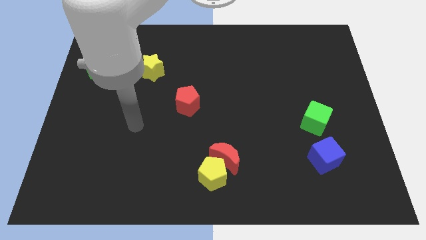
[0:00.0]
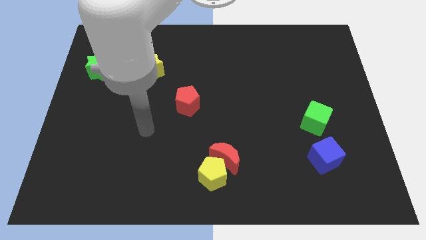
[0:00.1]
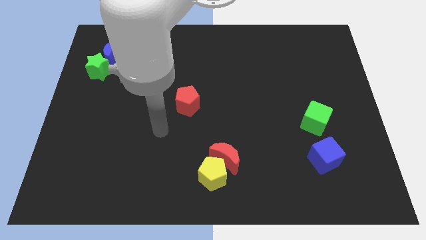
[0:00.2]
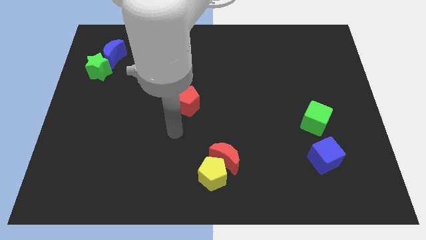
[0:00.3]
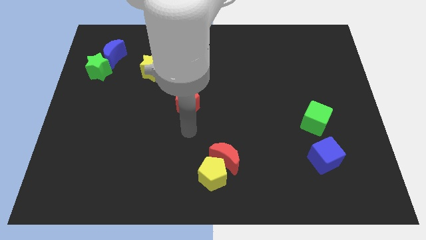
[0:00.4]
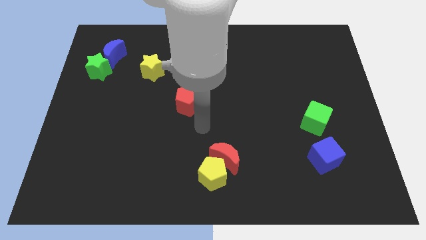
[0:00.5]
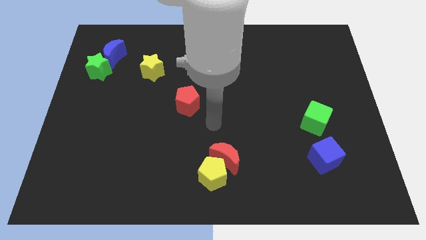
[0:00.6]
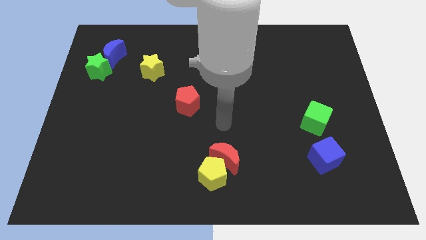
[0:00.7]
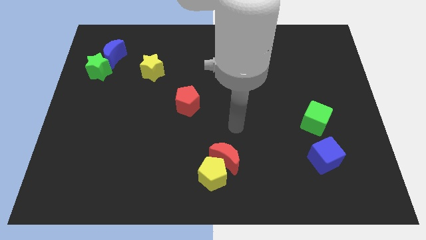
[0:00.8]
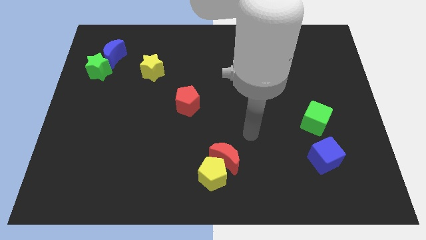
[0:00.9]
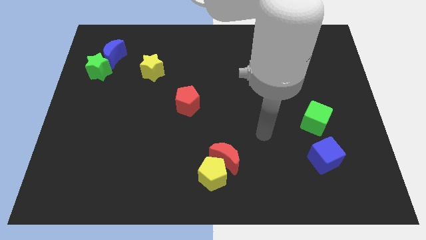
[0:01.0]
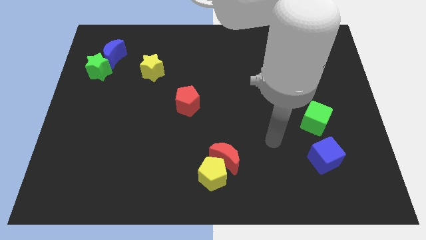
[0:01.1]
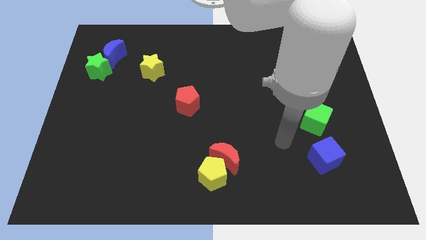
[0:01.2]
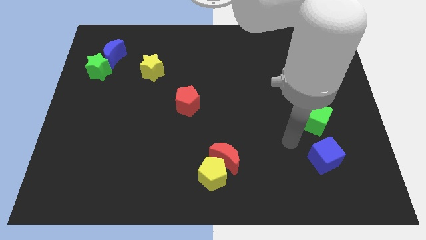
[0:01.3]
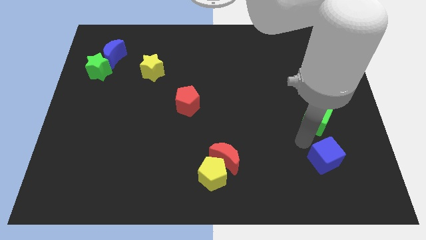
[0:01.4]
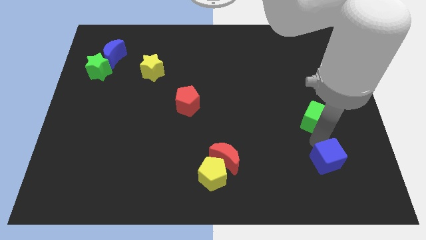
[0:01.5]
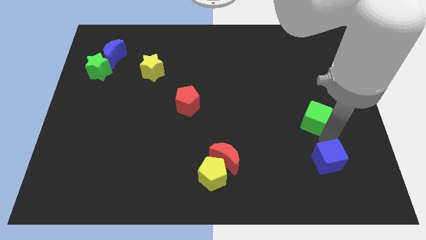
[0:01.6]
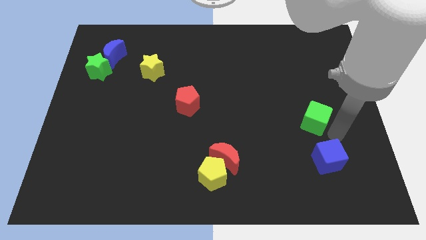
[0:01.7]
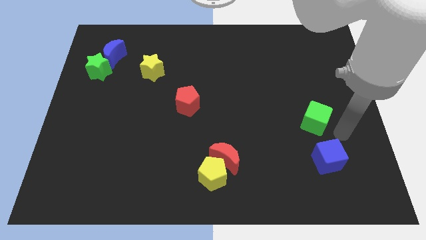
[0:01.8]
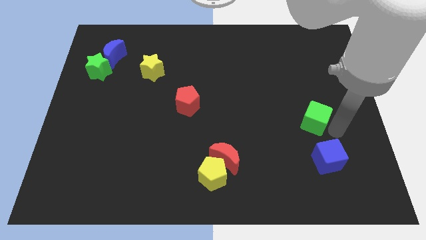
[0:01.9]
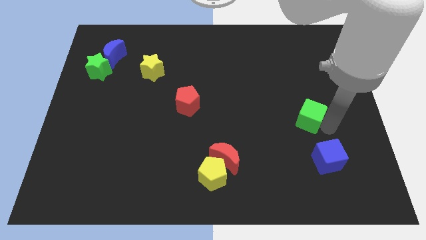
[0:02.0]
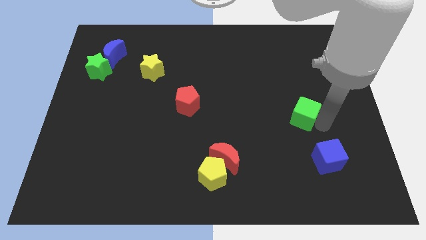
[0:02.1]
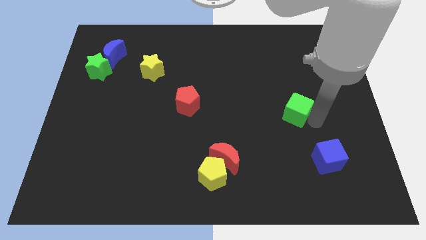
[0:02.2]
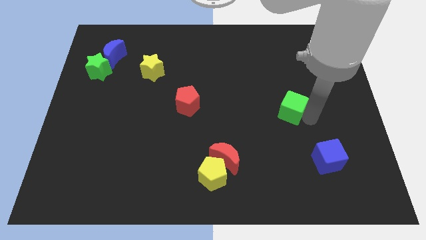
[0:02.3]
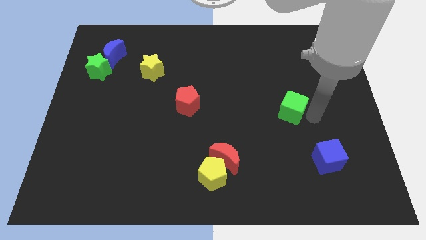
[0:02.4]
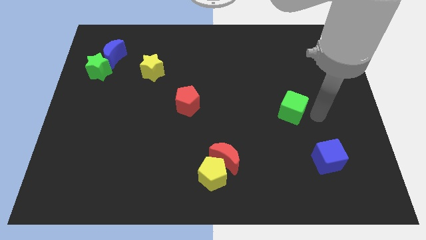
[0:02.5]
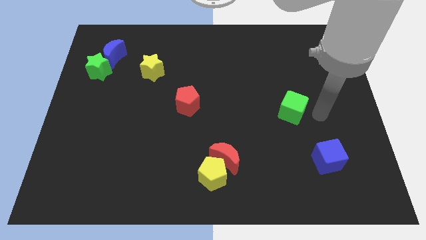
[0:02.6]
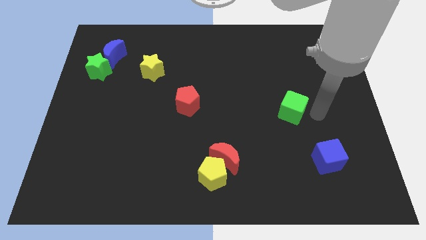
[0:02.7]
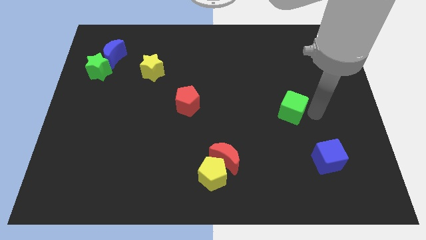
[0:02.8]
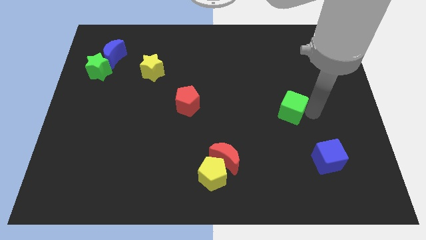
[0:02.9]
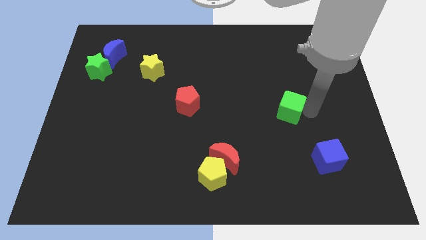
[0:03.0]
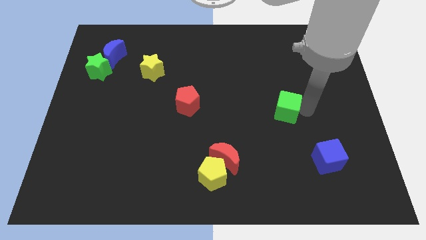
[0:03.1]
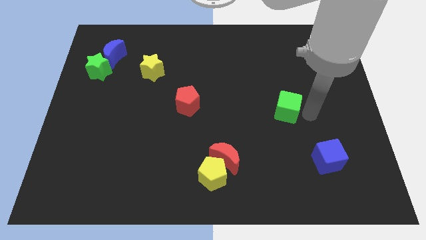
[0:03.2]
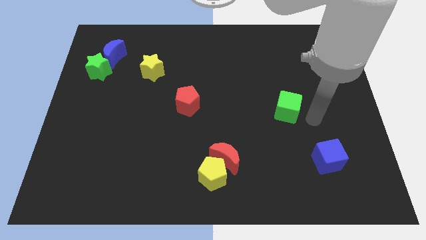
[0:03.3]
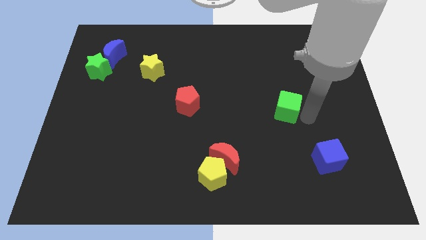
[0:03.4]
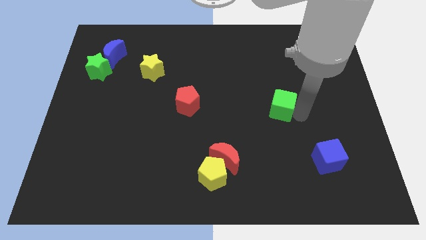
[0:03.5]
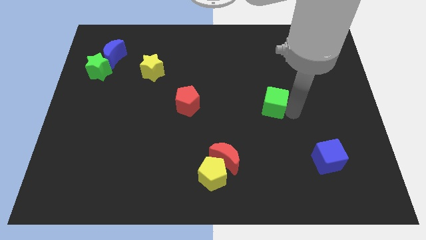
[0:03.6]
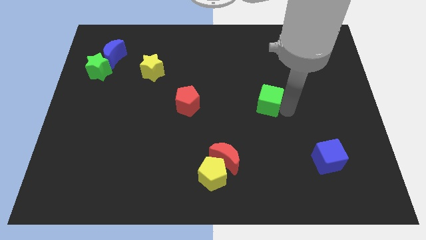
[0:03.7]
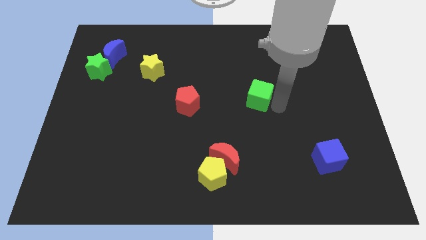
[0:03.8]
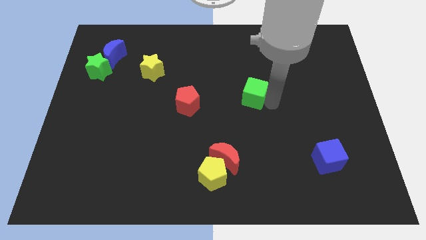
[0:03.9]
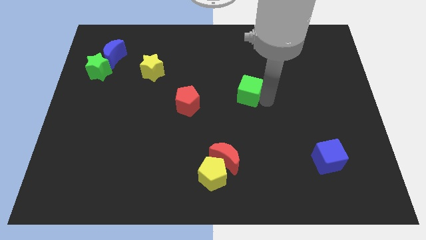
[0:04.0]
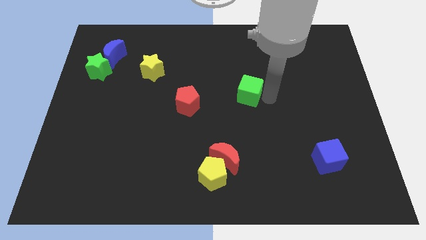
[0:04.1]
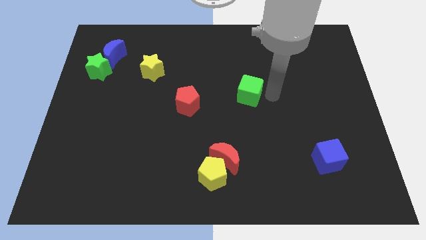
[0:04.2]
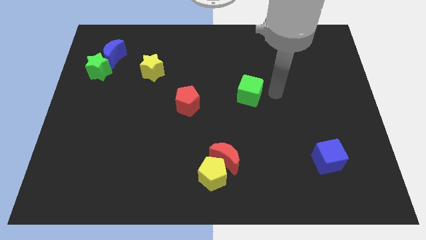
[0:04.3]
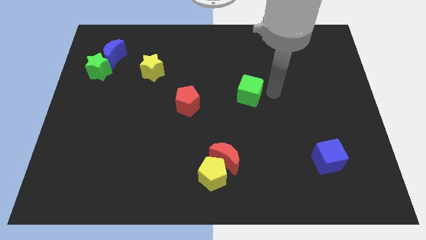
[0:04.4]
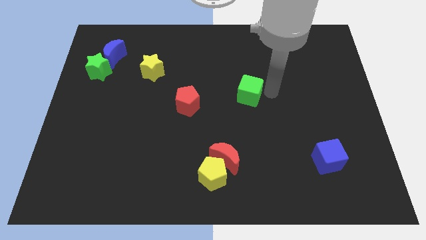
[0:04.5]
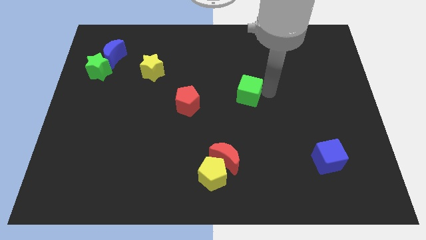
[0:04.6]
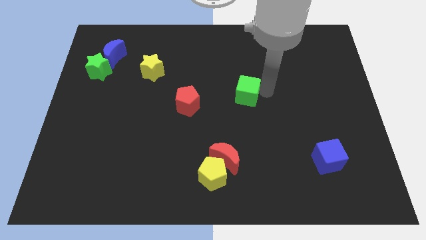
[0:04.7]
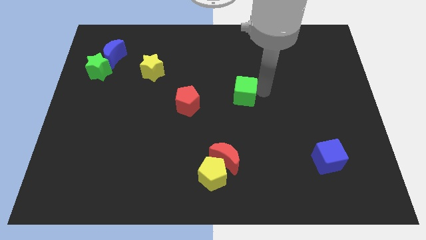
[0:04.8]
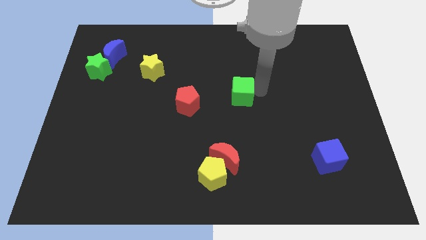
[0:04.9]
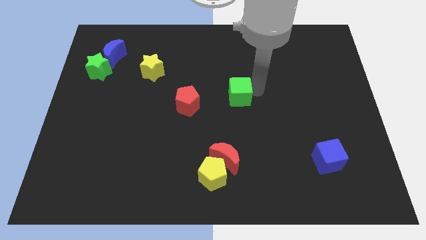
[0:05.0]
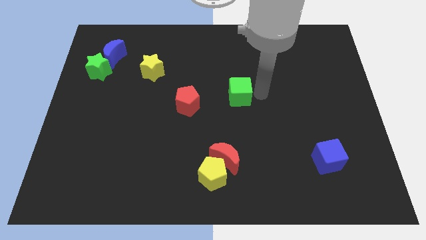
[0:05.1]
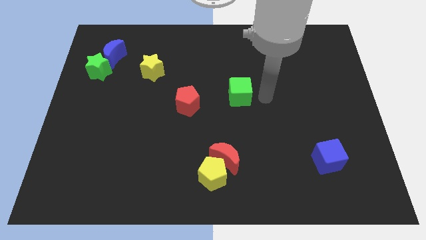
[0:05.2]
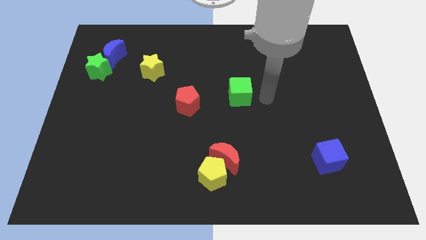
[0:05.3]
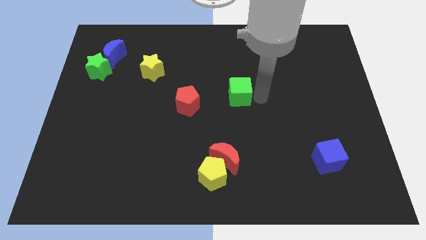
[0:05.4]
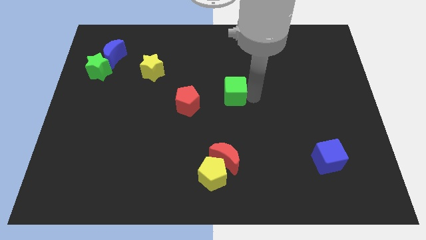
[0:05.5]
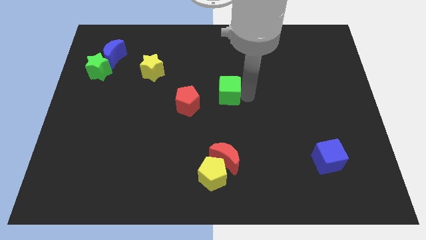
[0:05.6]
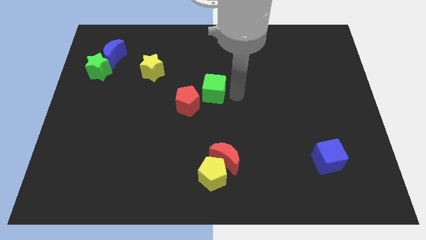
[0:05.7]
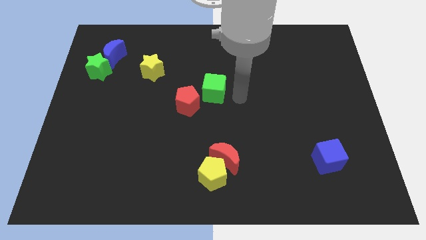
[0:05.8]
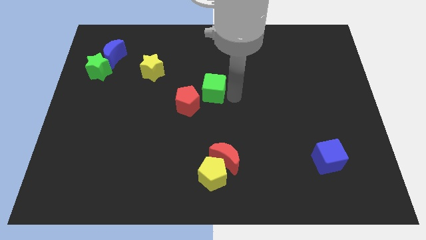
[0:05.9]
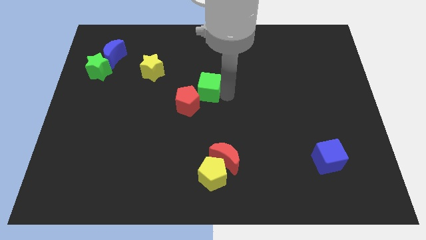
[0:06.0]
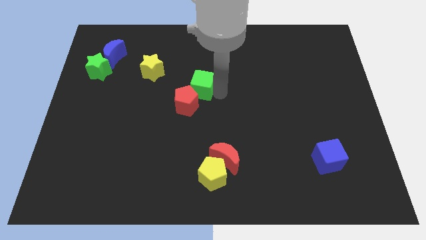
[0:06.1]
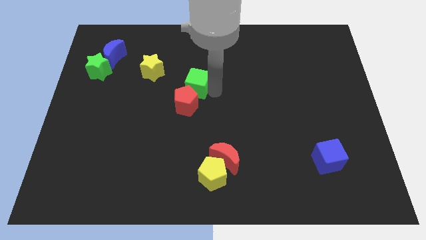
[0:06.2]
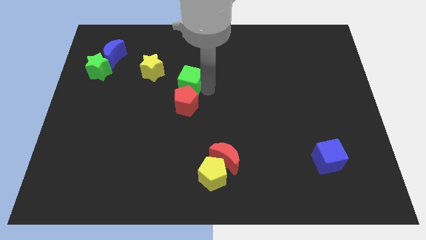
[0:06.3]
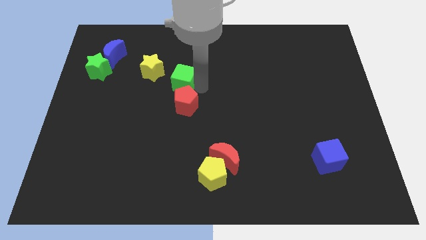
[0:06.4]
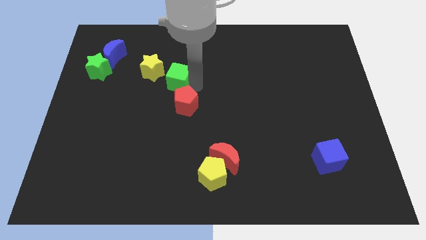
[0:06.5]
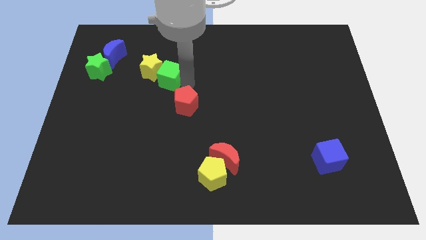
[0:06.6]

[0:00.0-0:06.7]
put the green cube to the yellow star

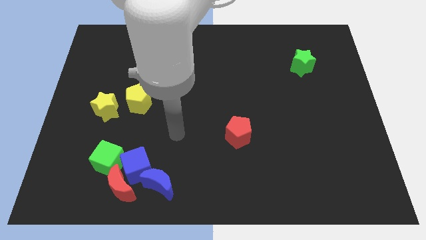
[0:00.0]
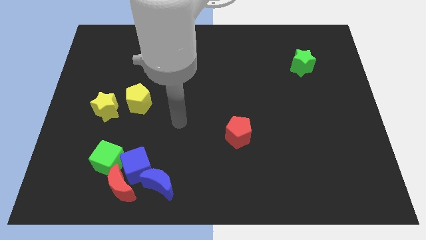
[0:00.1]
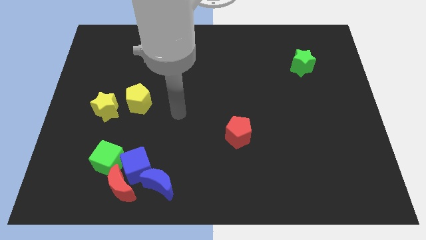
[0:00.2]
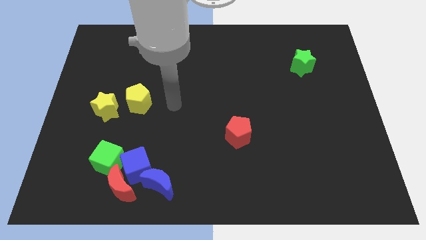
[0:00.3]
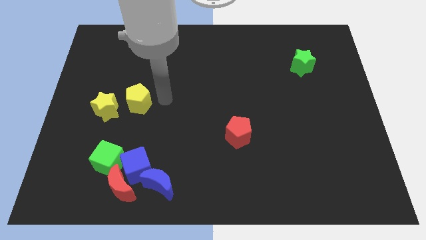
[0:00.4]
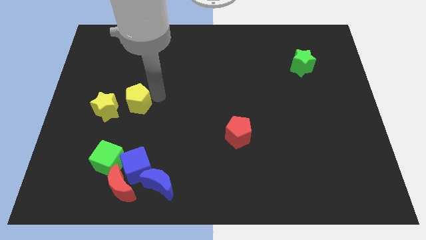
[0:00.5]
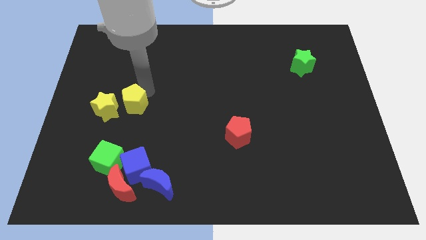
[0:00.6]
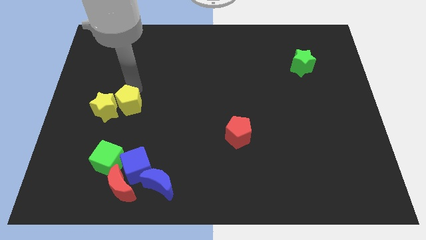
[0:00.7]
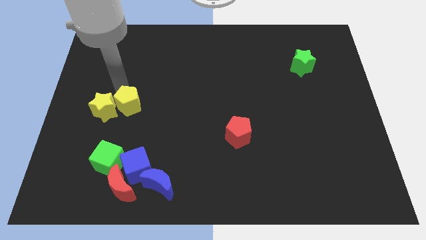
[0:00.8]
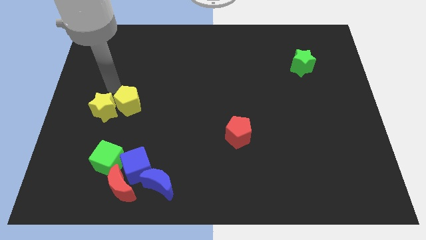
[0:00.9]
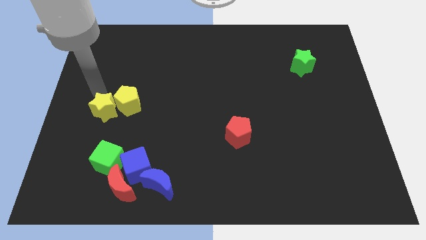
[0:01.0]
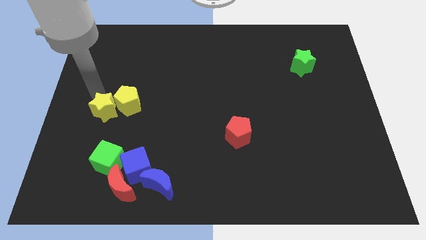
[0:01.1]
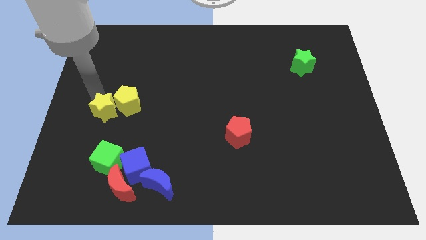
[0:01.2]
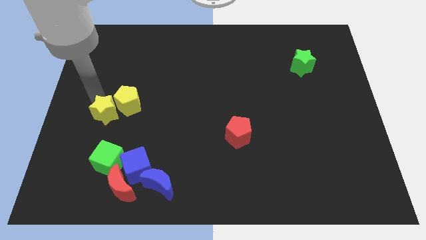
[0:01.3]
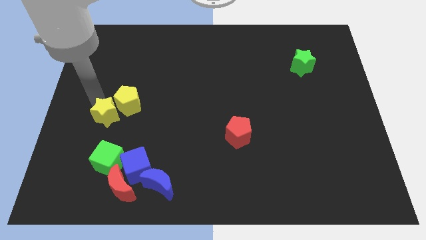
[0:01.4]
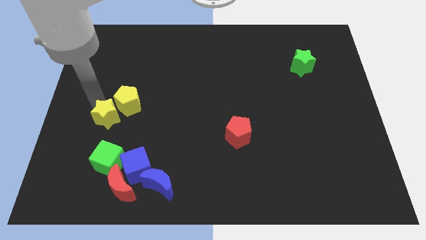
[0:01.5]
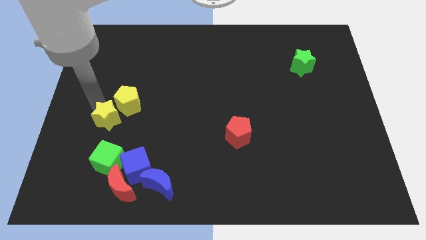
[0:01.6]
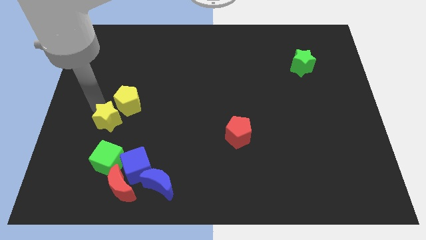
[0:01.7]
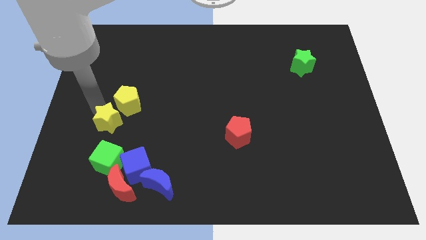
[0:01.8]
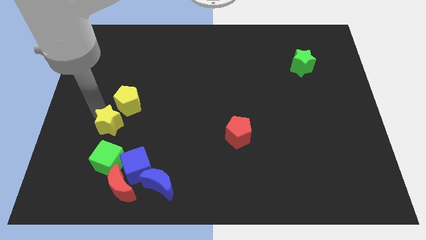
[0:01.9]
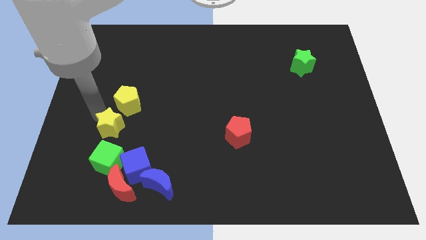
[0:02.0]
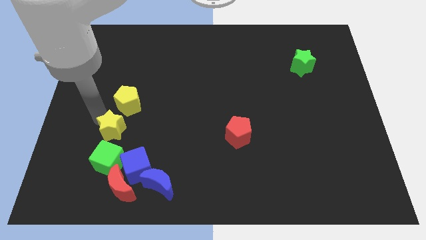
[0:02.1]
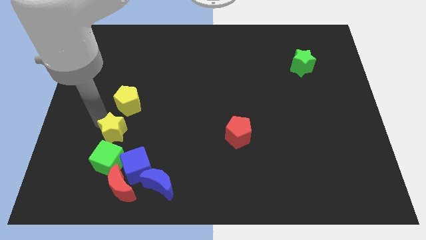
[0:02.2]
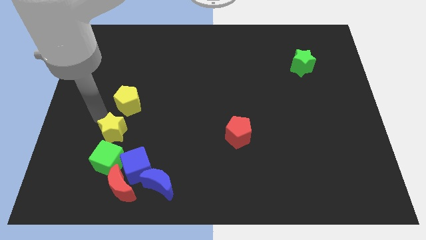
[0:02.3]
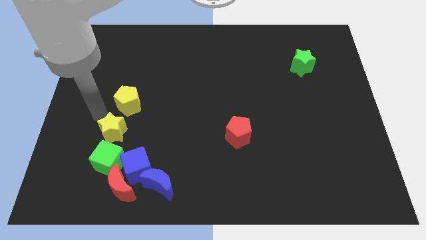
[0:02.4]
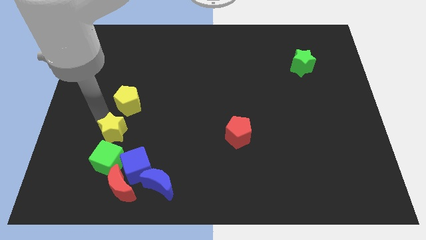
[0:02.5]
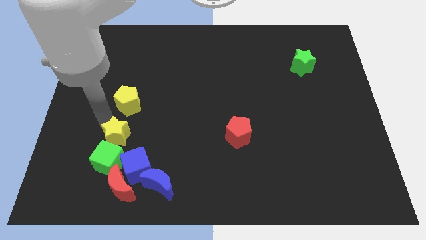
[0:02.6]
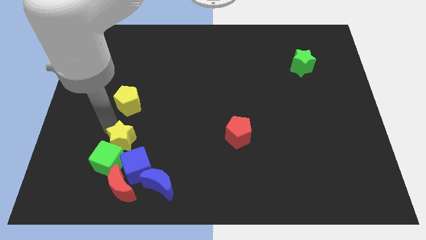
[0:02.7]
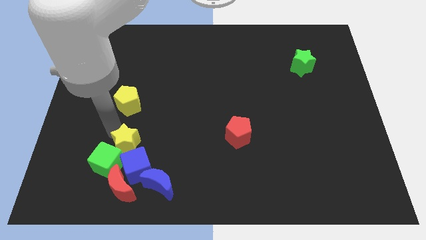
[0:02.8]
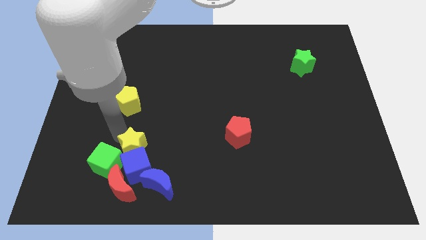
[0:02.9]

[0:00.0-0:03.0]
put the yellow star close to the blue cube
